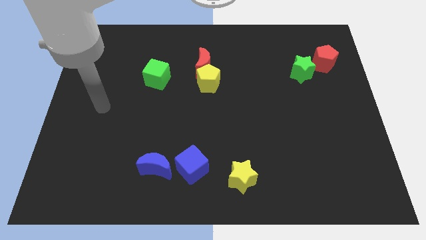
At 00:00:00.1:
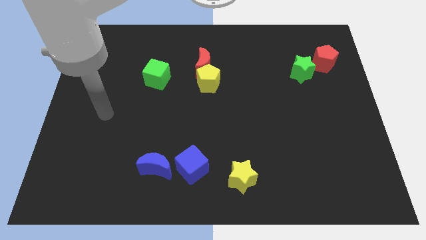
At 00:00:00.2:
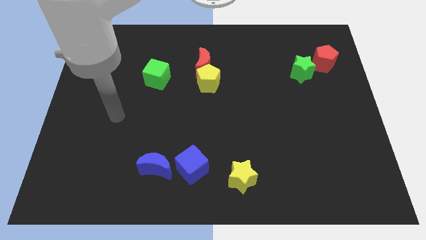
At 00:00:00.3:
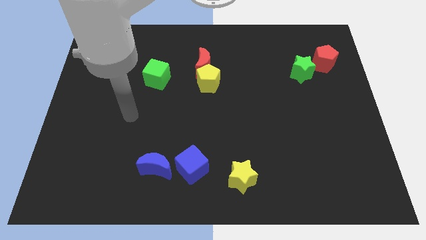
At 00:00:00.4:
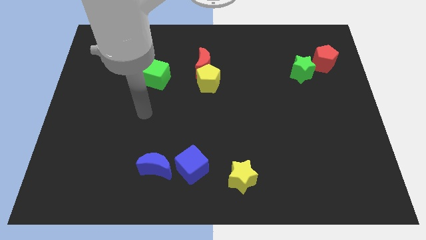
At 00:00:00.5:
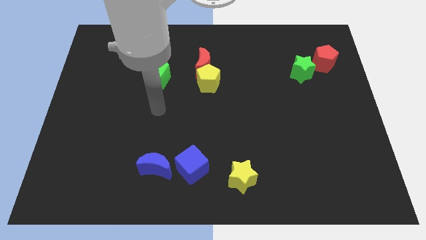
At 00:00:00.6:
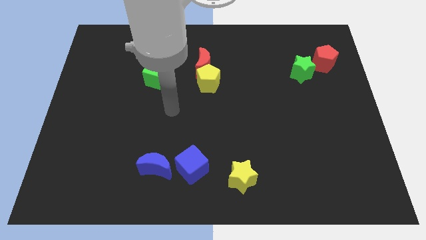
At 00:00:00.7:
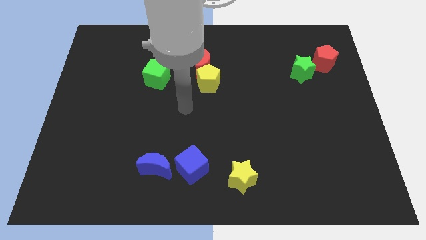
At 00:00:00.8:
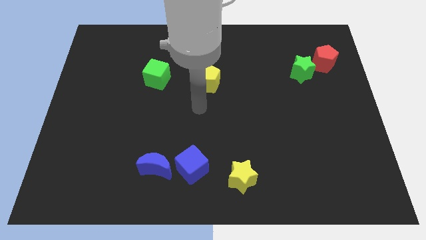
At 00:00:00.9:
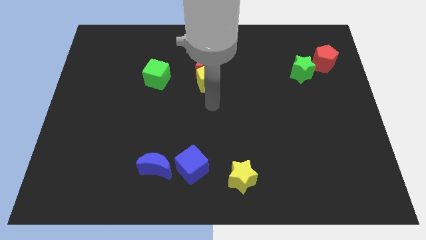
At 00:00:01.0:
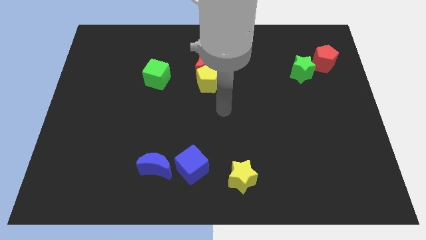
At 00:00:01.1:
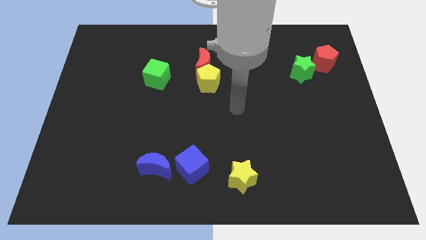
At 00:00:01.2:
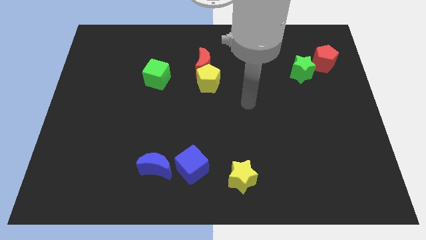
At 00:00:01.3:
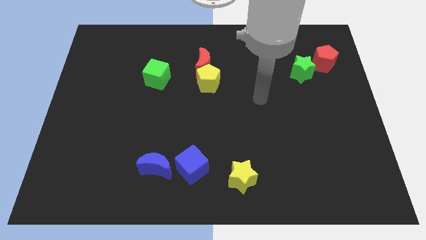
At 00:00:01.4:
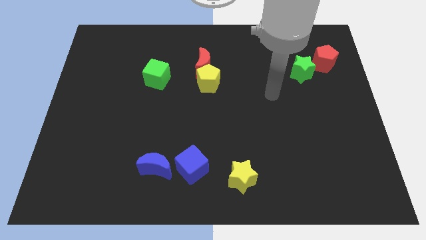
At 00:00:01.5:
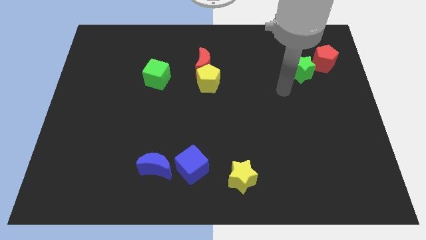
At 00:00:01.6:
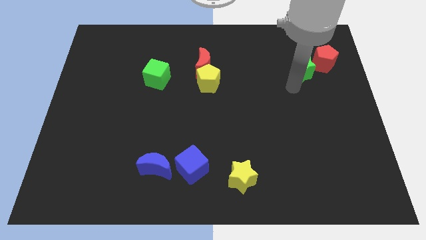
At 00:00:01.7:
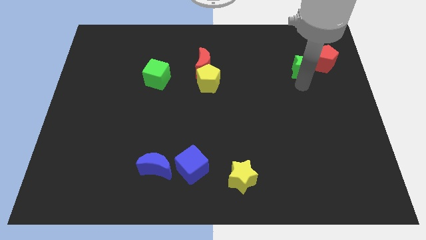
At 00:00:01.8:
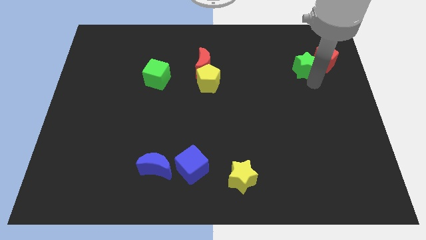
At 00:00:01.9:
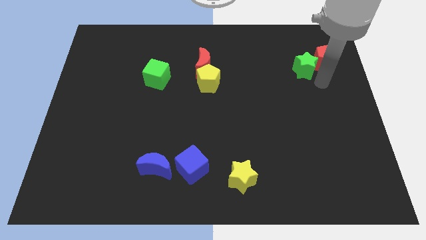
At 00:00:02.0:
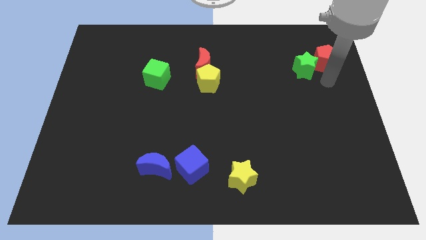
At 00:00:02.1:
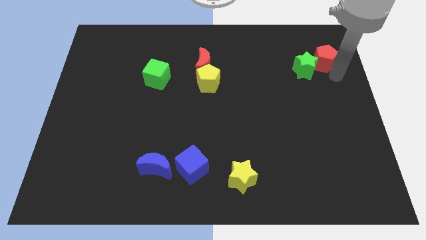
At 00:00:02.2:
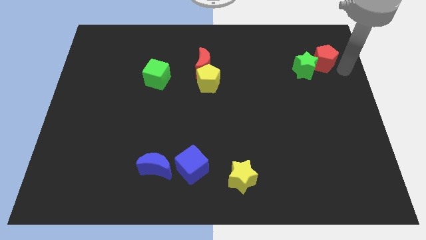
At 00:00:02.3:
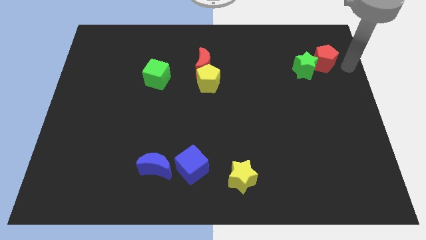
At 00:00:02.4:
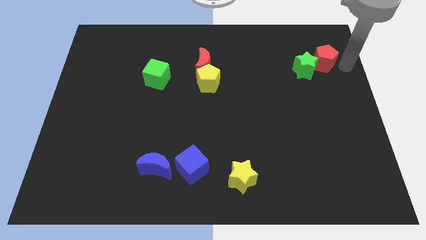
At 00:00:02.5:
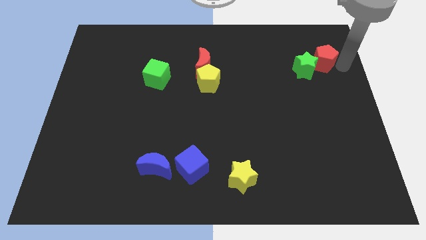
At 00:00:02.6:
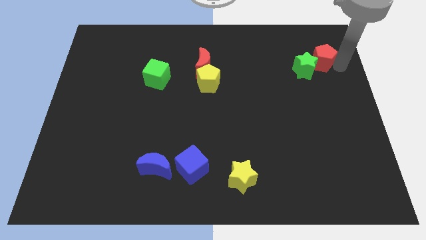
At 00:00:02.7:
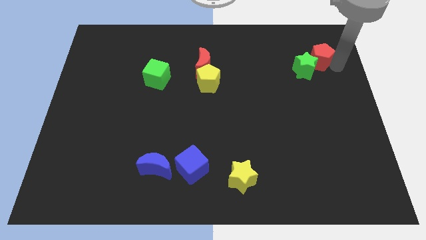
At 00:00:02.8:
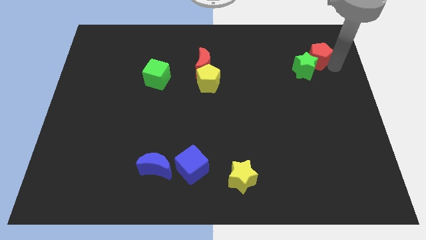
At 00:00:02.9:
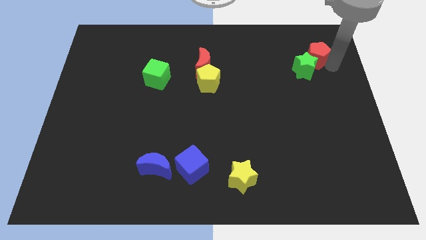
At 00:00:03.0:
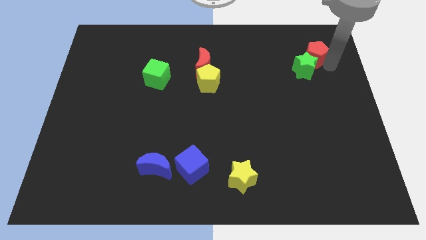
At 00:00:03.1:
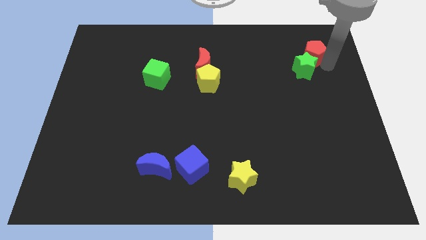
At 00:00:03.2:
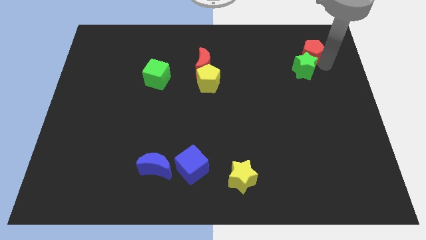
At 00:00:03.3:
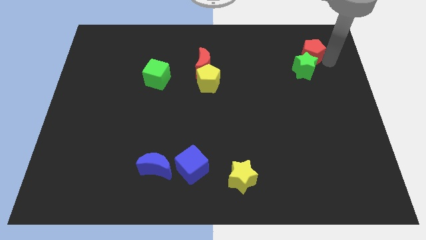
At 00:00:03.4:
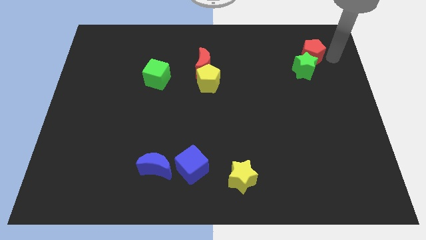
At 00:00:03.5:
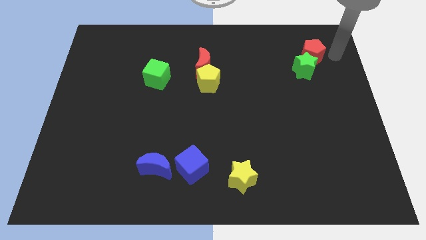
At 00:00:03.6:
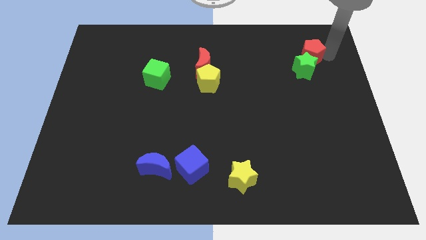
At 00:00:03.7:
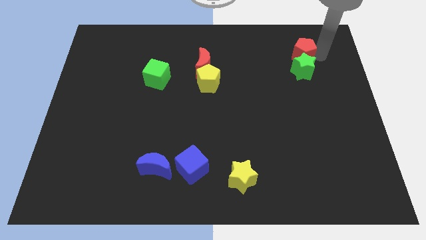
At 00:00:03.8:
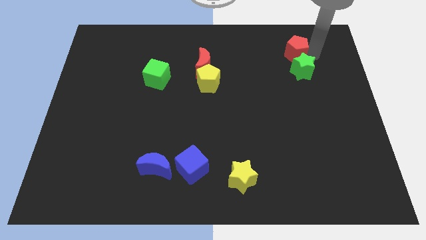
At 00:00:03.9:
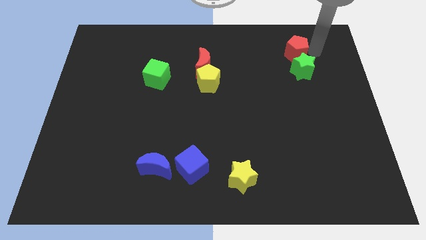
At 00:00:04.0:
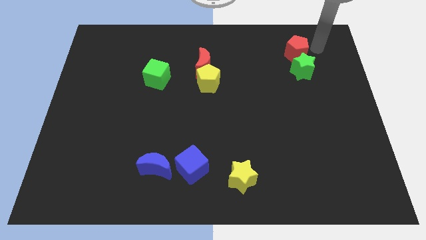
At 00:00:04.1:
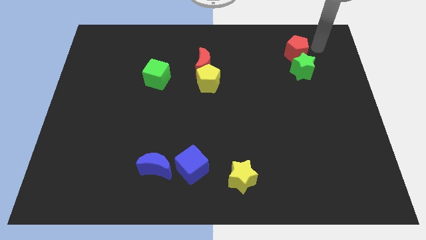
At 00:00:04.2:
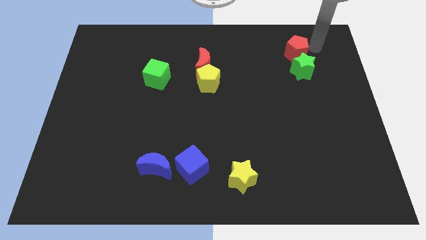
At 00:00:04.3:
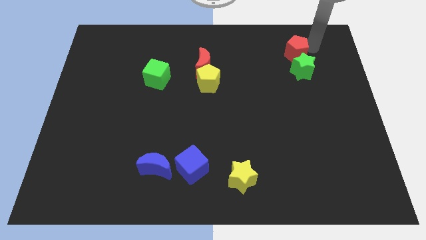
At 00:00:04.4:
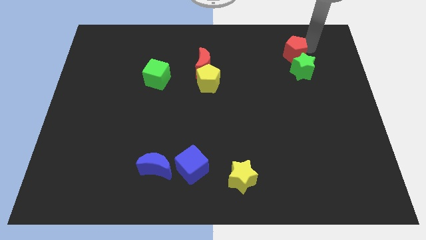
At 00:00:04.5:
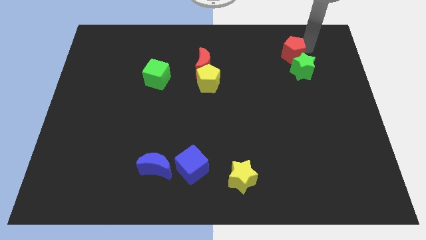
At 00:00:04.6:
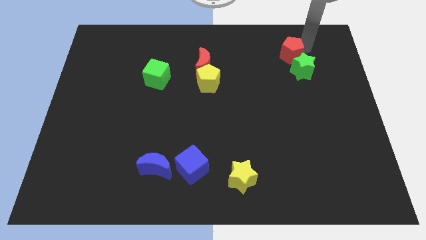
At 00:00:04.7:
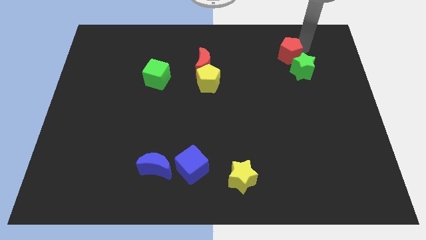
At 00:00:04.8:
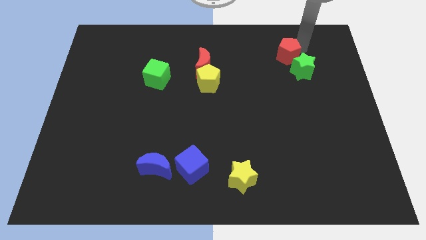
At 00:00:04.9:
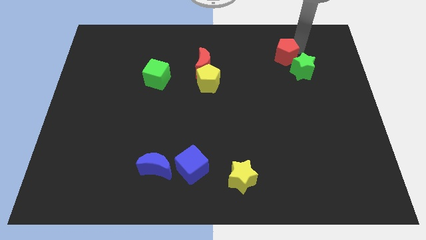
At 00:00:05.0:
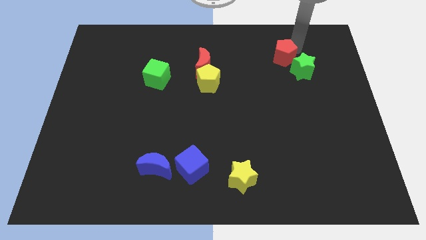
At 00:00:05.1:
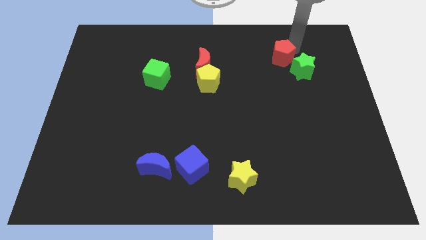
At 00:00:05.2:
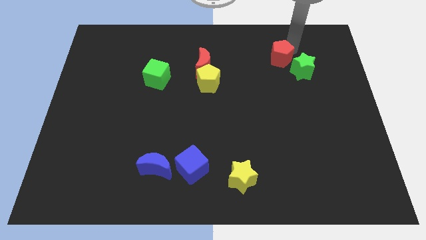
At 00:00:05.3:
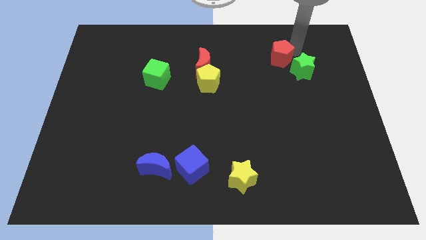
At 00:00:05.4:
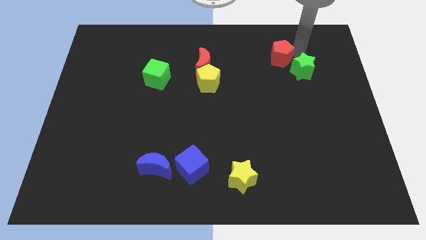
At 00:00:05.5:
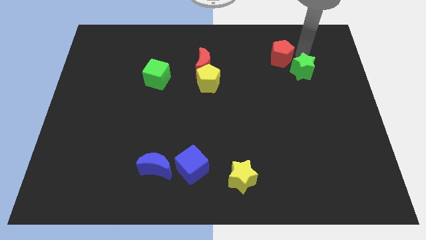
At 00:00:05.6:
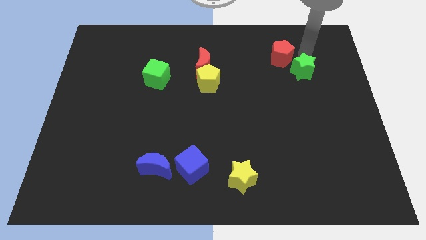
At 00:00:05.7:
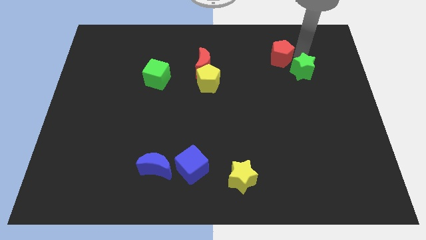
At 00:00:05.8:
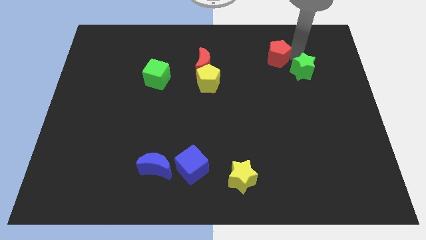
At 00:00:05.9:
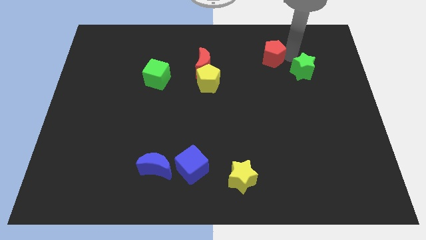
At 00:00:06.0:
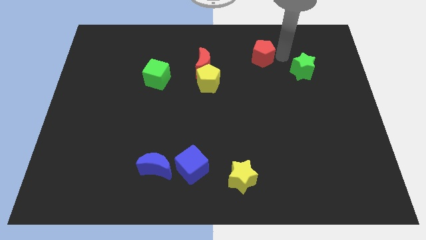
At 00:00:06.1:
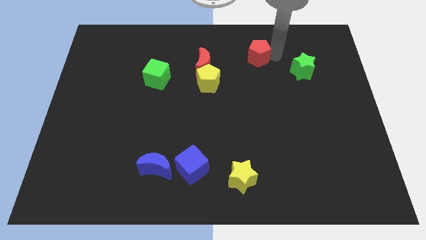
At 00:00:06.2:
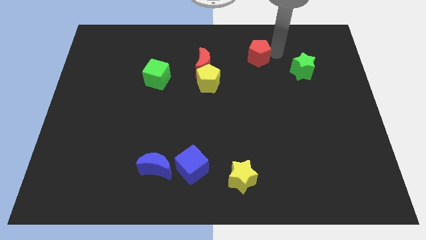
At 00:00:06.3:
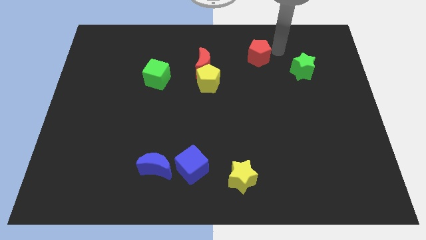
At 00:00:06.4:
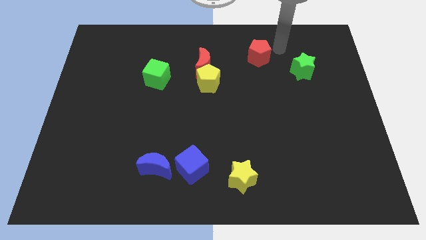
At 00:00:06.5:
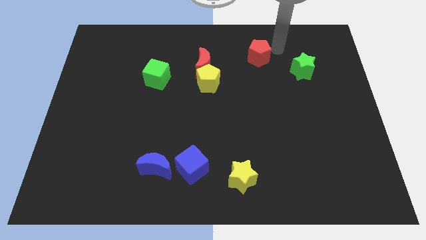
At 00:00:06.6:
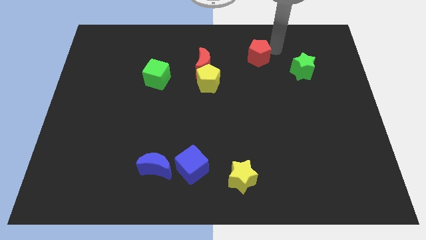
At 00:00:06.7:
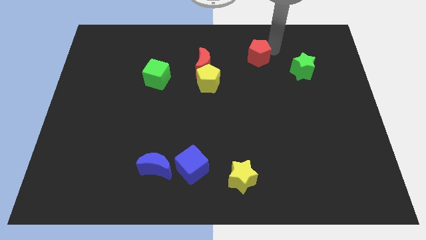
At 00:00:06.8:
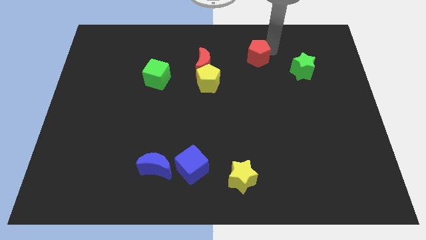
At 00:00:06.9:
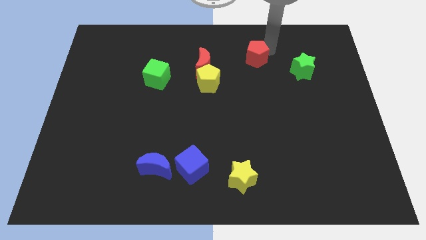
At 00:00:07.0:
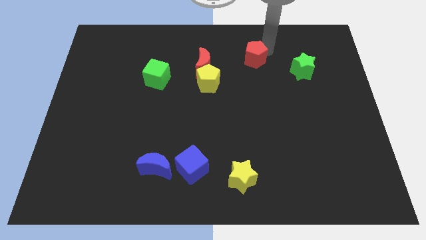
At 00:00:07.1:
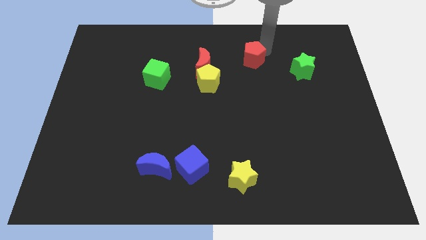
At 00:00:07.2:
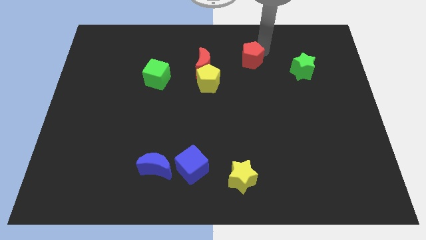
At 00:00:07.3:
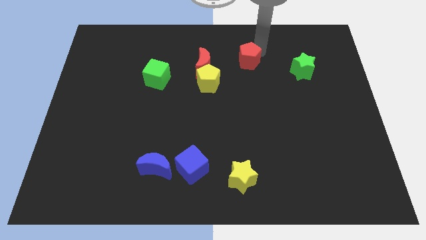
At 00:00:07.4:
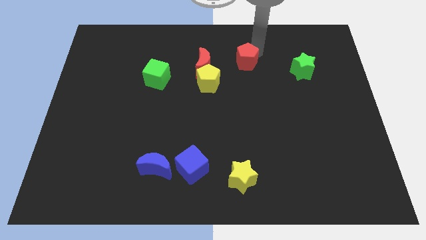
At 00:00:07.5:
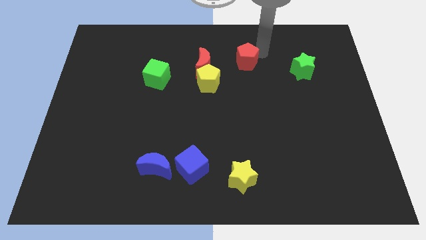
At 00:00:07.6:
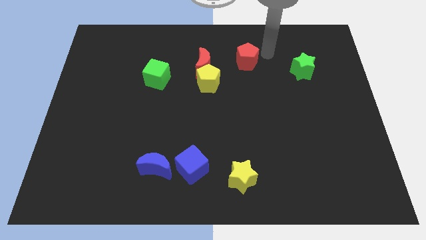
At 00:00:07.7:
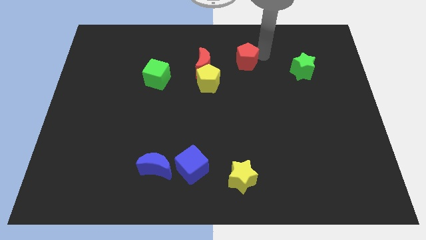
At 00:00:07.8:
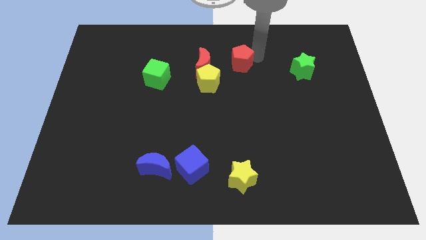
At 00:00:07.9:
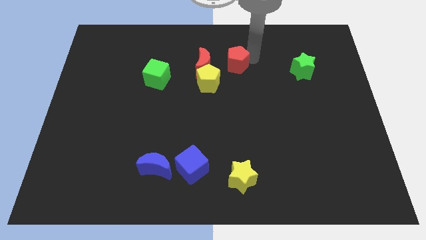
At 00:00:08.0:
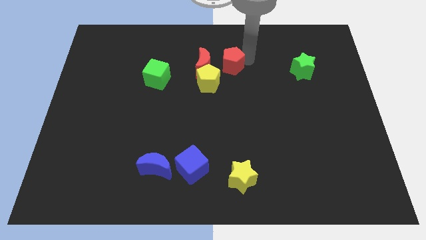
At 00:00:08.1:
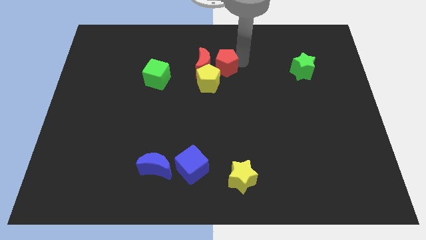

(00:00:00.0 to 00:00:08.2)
put the red pentagon to the red moon
